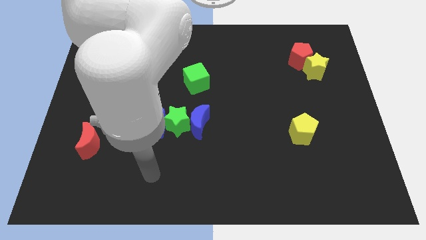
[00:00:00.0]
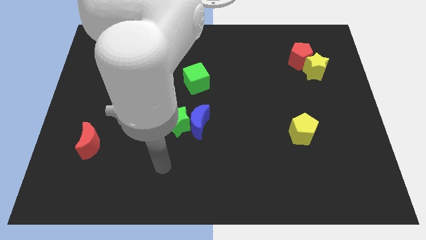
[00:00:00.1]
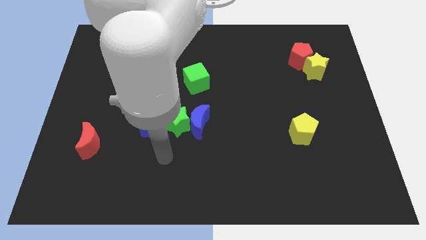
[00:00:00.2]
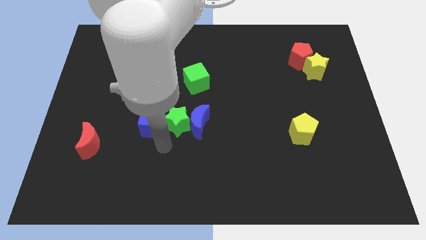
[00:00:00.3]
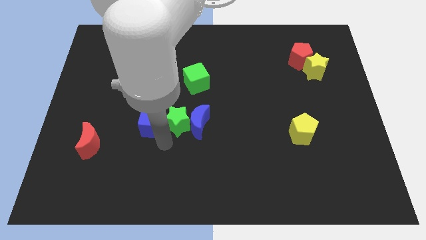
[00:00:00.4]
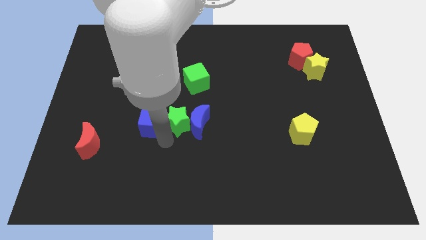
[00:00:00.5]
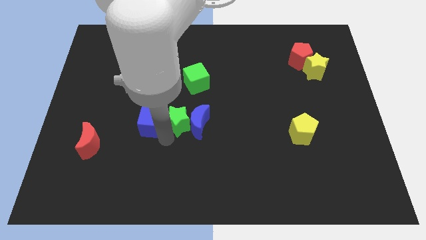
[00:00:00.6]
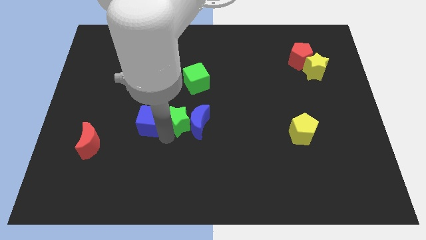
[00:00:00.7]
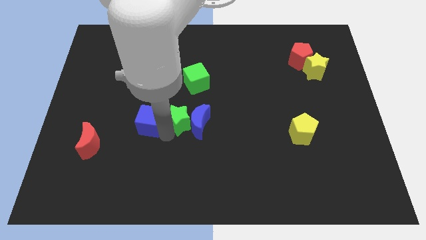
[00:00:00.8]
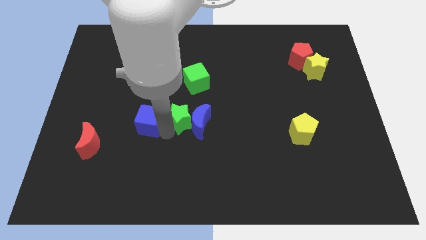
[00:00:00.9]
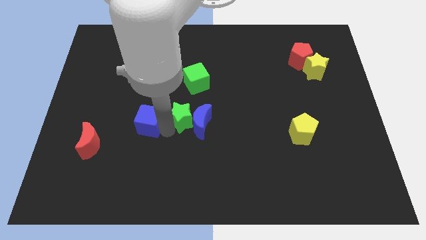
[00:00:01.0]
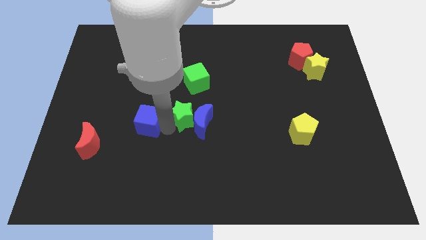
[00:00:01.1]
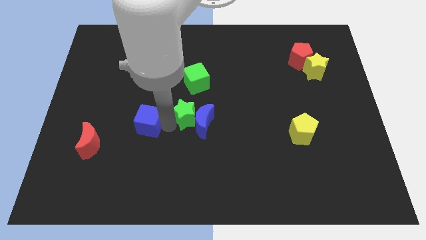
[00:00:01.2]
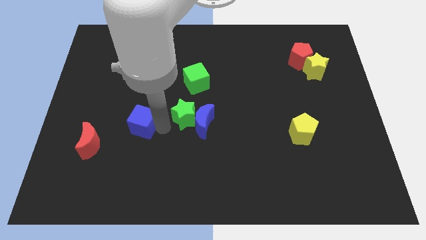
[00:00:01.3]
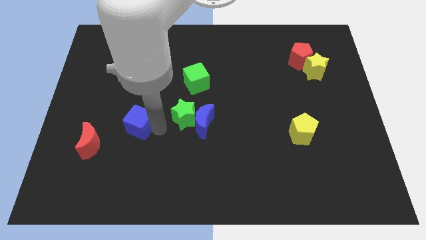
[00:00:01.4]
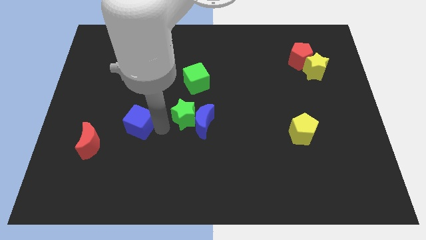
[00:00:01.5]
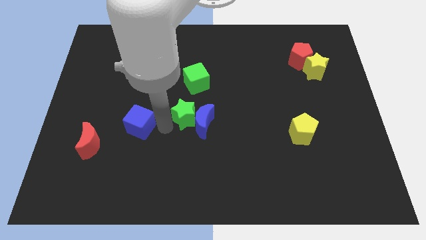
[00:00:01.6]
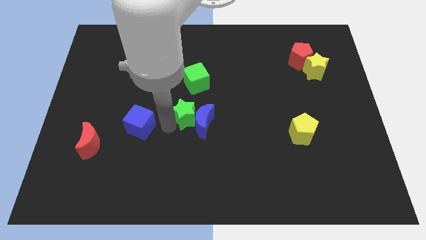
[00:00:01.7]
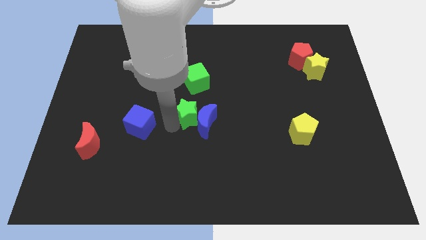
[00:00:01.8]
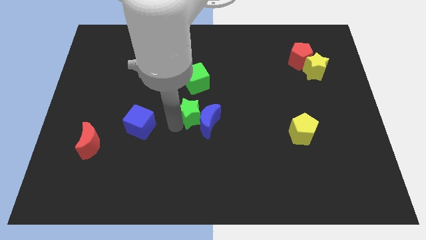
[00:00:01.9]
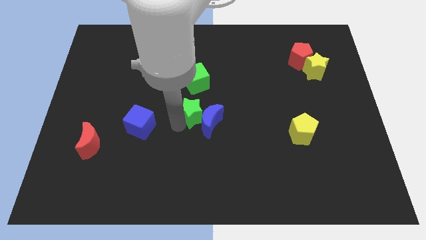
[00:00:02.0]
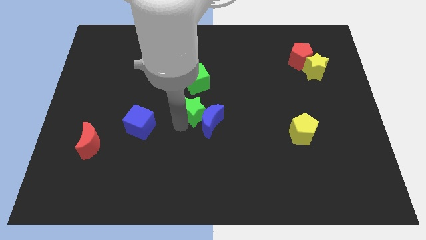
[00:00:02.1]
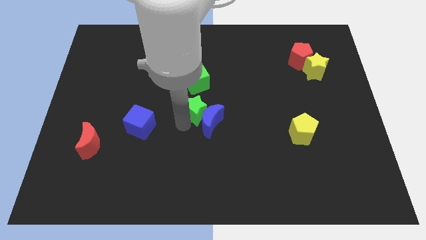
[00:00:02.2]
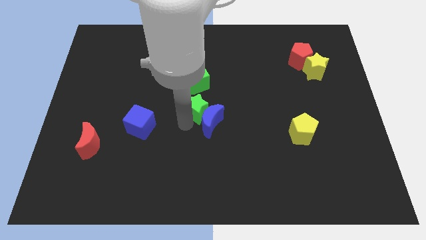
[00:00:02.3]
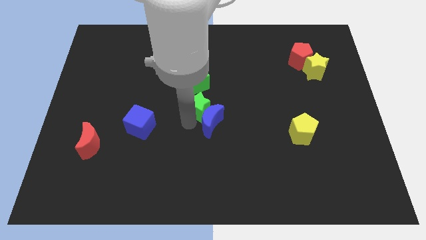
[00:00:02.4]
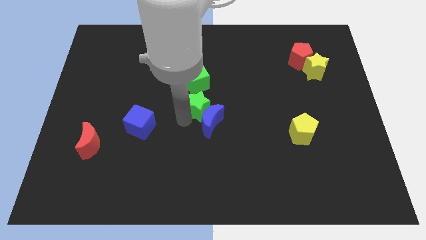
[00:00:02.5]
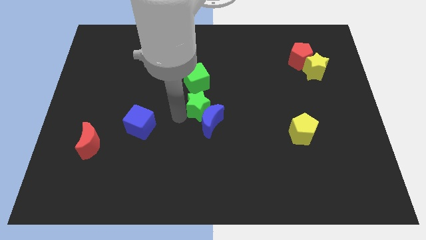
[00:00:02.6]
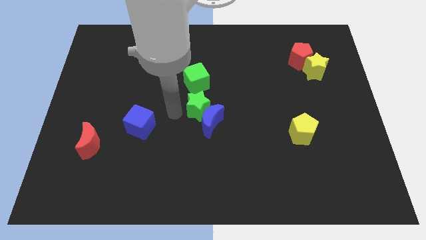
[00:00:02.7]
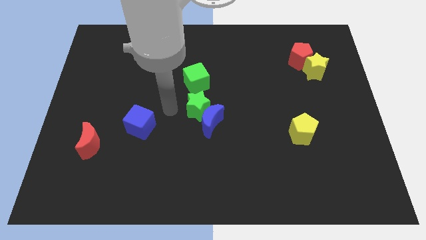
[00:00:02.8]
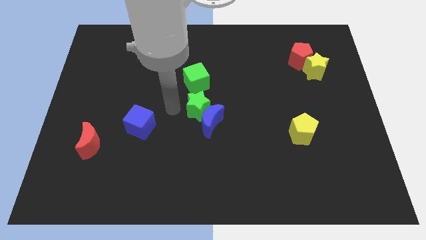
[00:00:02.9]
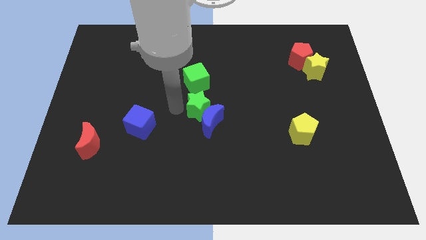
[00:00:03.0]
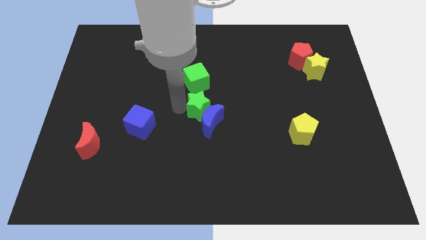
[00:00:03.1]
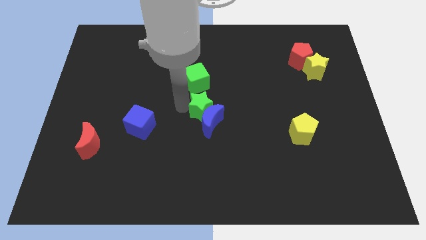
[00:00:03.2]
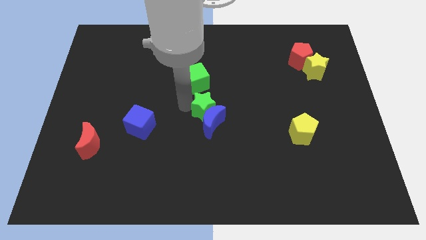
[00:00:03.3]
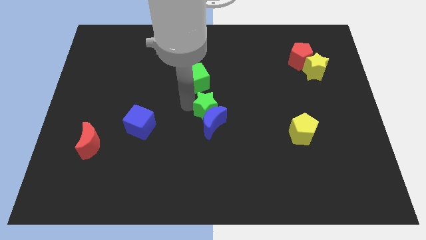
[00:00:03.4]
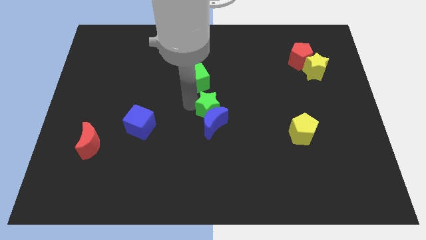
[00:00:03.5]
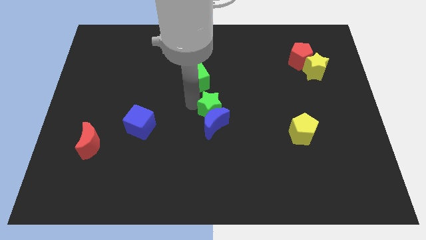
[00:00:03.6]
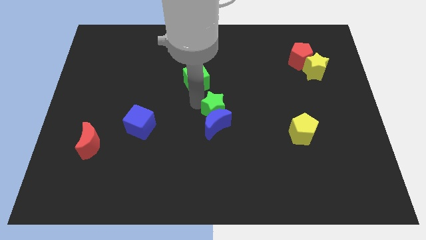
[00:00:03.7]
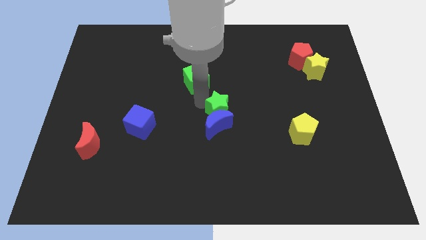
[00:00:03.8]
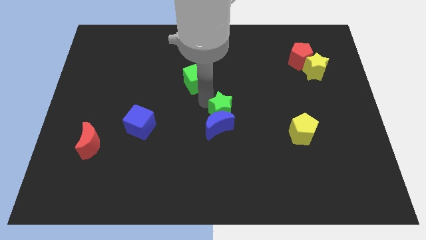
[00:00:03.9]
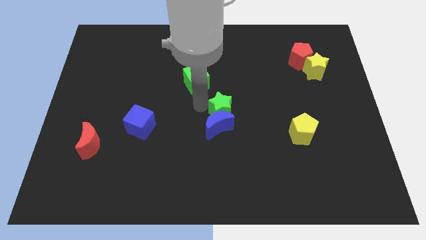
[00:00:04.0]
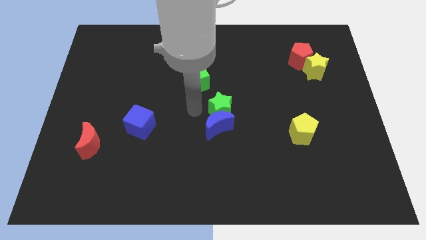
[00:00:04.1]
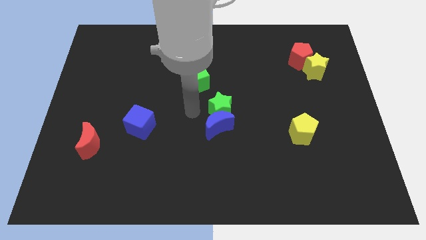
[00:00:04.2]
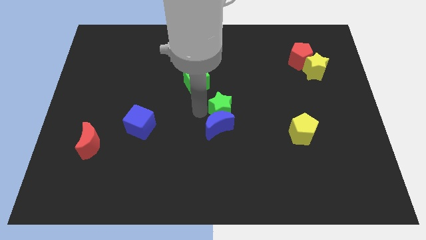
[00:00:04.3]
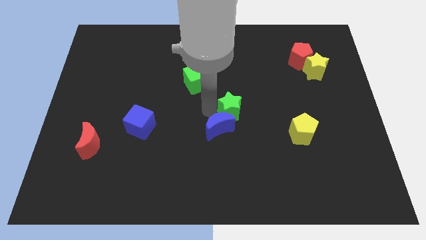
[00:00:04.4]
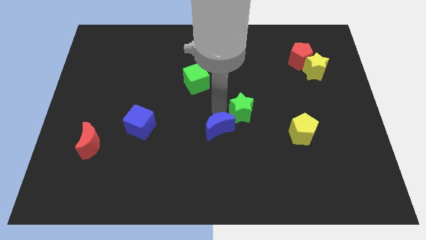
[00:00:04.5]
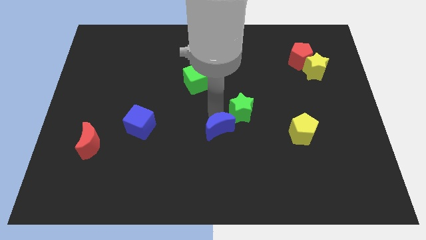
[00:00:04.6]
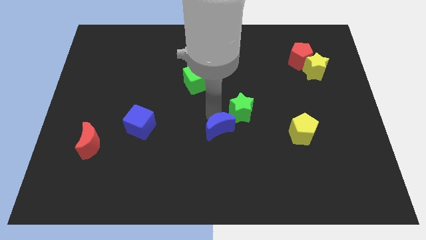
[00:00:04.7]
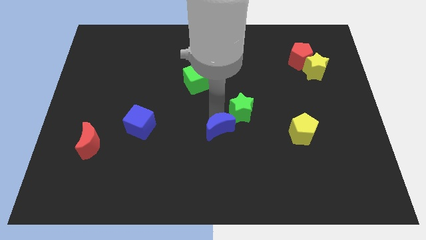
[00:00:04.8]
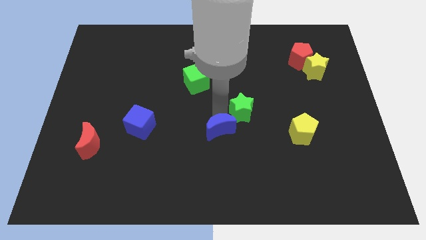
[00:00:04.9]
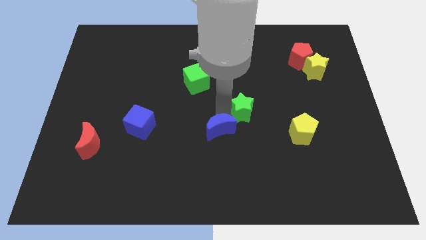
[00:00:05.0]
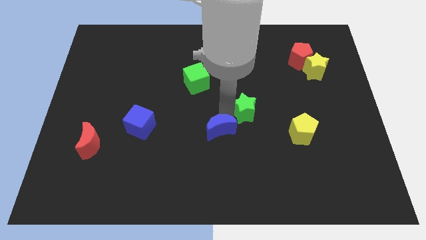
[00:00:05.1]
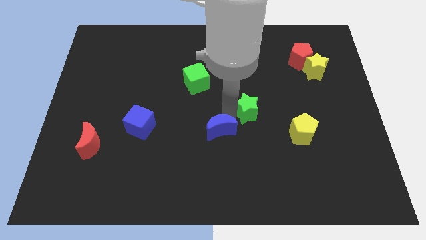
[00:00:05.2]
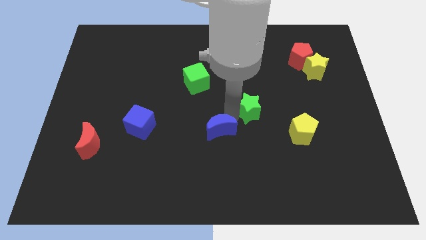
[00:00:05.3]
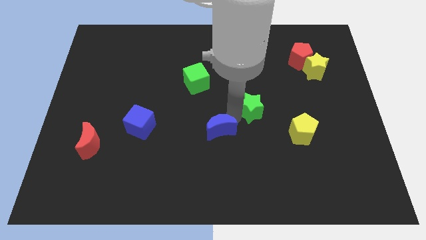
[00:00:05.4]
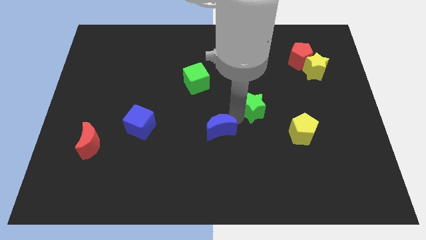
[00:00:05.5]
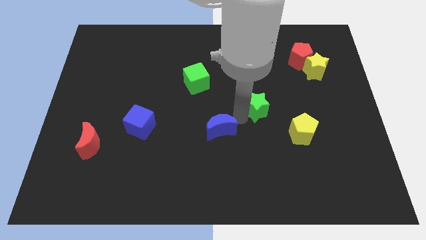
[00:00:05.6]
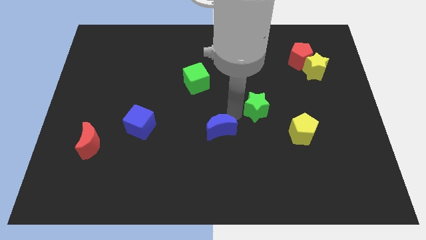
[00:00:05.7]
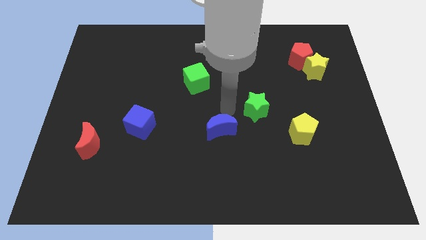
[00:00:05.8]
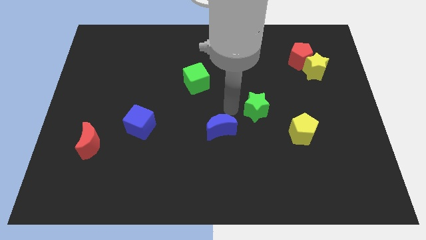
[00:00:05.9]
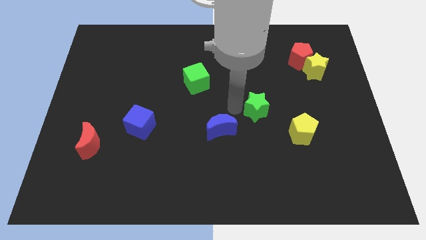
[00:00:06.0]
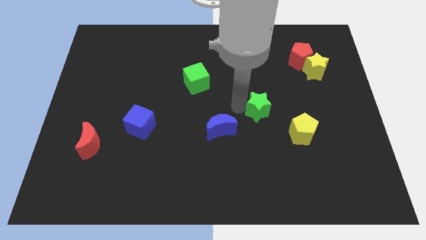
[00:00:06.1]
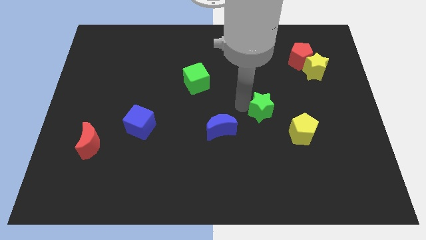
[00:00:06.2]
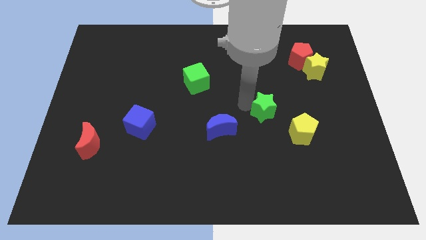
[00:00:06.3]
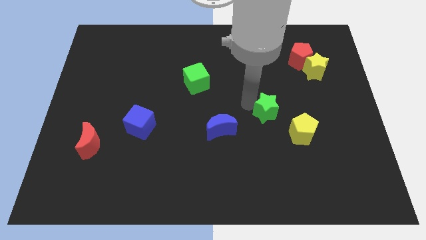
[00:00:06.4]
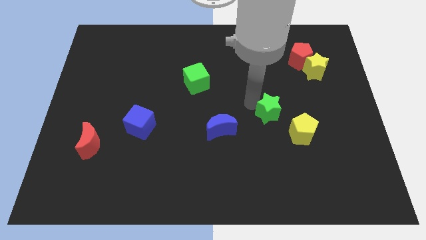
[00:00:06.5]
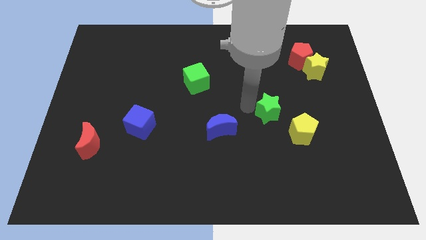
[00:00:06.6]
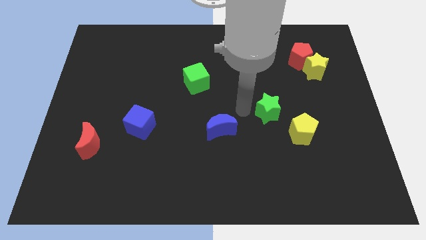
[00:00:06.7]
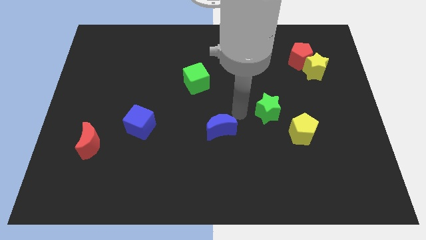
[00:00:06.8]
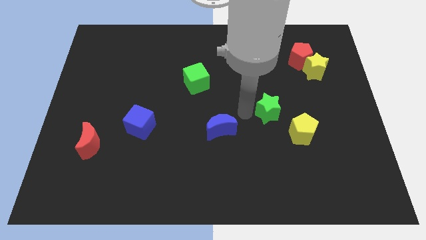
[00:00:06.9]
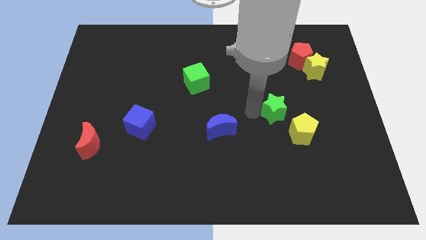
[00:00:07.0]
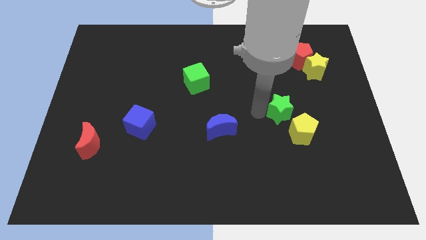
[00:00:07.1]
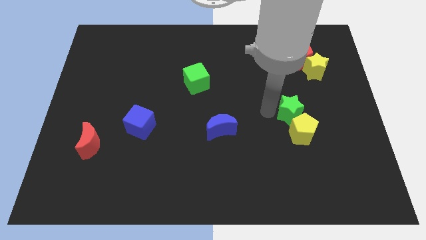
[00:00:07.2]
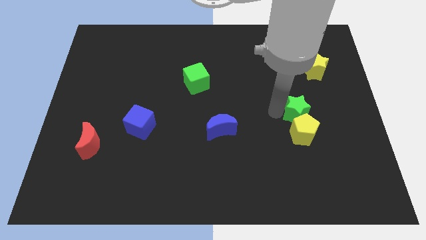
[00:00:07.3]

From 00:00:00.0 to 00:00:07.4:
put the green star to the top right side of the yellow pentagon

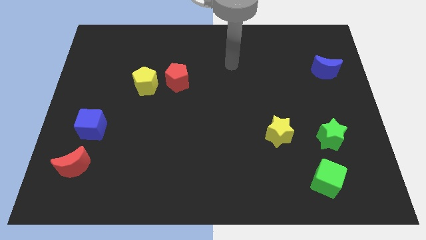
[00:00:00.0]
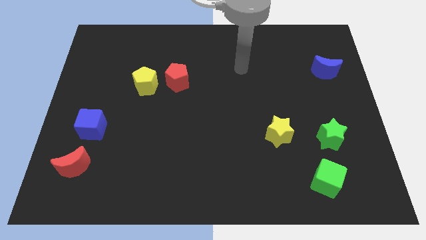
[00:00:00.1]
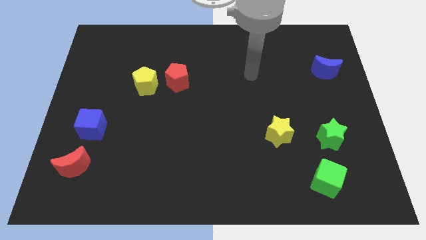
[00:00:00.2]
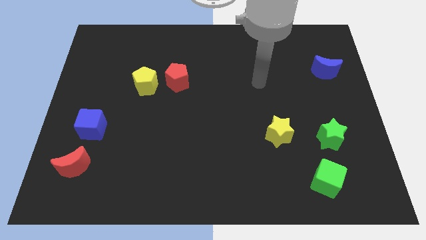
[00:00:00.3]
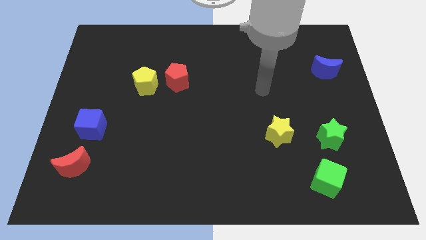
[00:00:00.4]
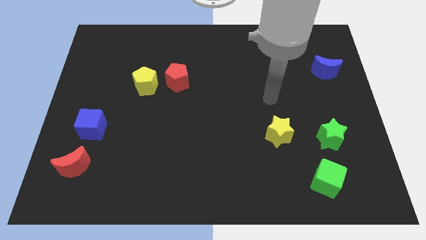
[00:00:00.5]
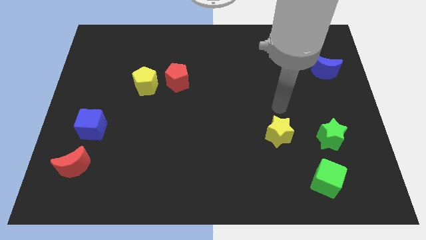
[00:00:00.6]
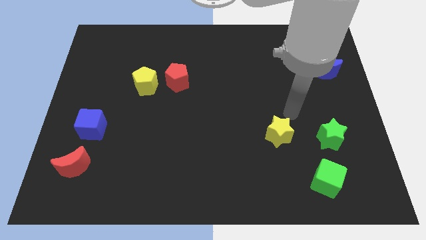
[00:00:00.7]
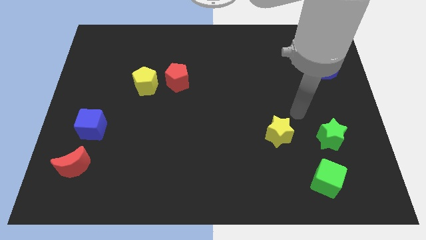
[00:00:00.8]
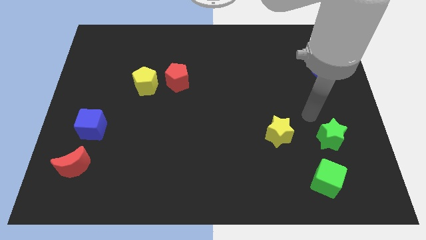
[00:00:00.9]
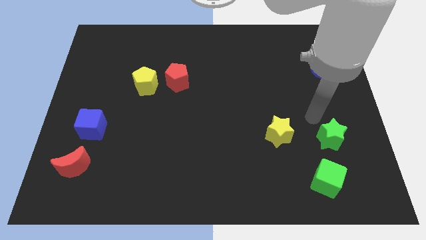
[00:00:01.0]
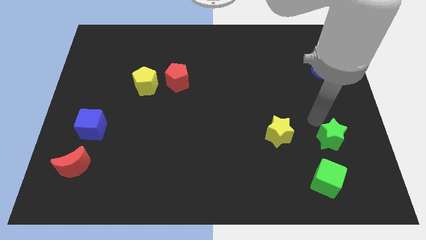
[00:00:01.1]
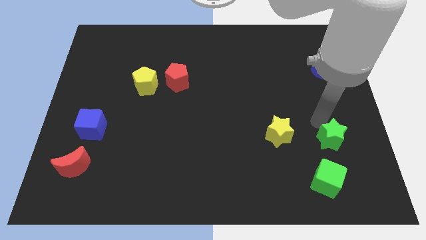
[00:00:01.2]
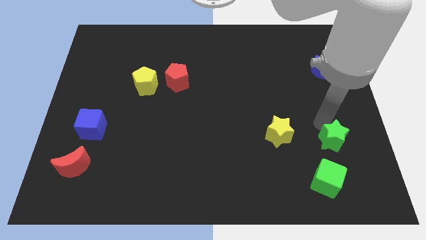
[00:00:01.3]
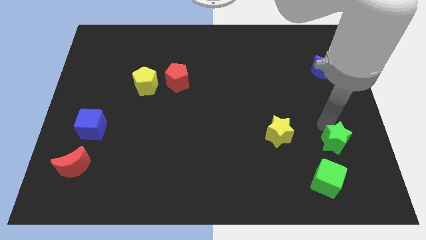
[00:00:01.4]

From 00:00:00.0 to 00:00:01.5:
put the green star to the top right side of the green cube
